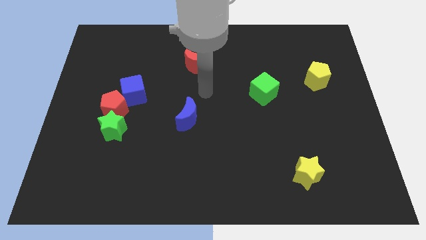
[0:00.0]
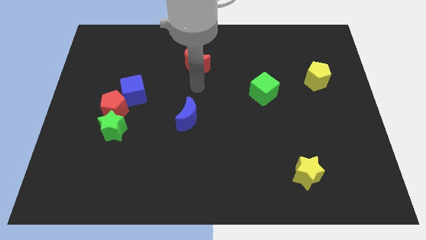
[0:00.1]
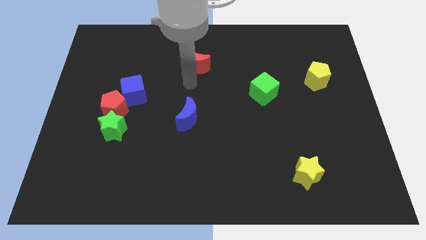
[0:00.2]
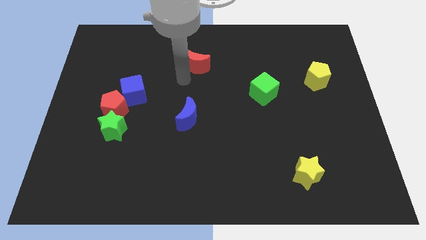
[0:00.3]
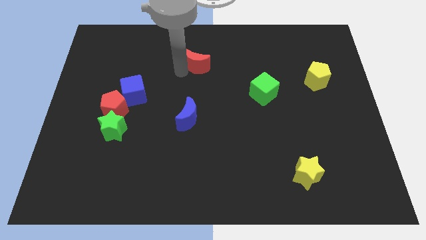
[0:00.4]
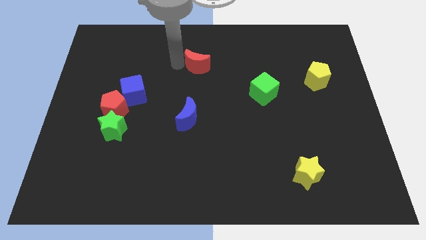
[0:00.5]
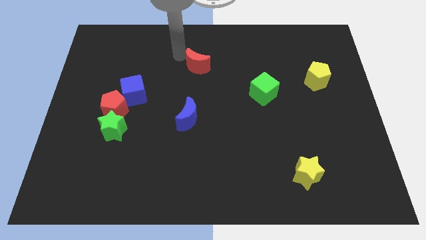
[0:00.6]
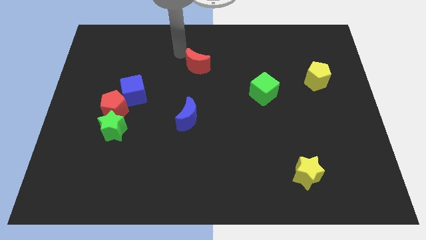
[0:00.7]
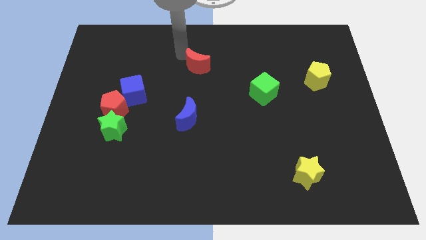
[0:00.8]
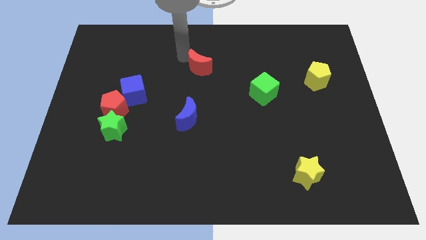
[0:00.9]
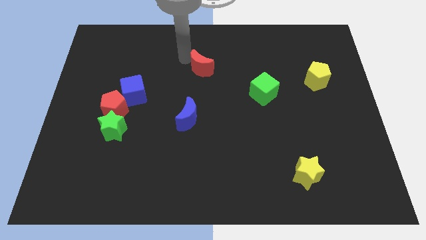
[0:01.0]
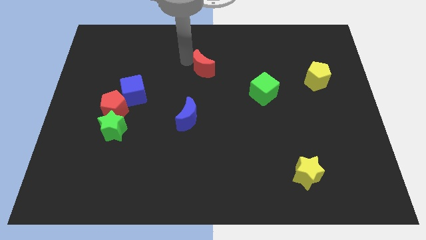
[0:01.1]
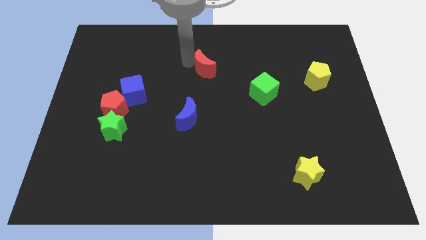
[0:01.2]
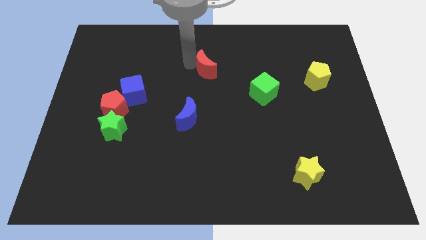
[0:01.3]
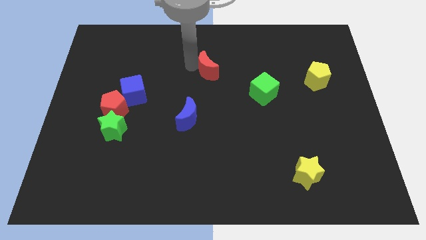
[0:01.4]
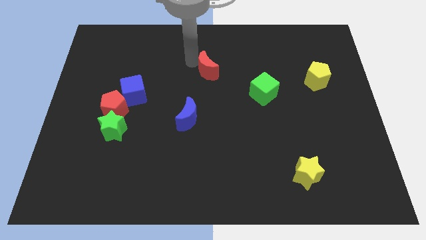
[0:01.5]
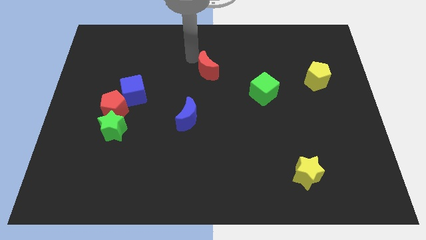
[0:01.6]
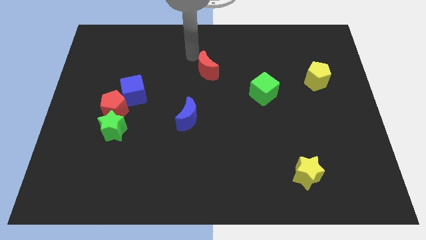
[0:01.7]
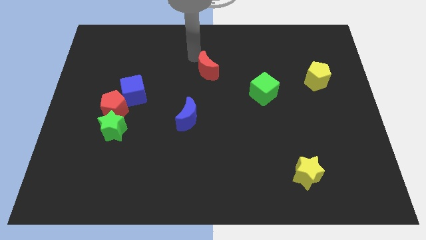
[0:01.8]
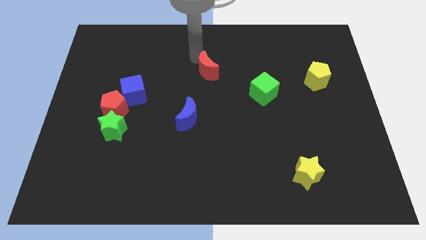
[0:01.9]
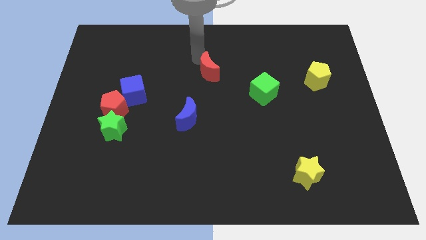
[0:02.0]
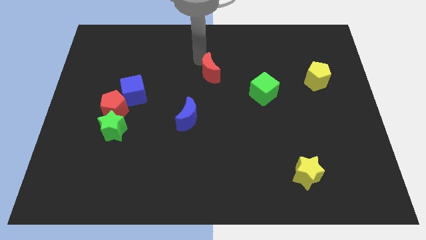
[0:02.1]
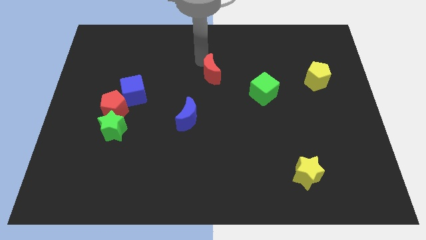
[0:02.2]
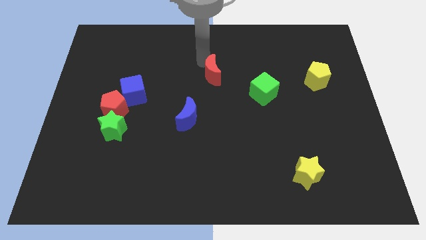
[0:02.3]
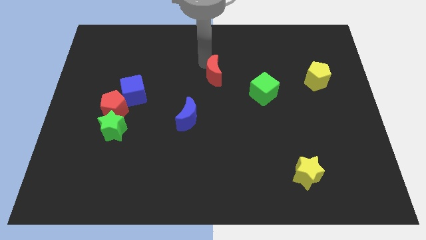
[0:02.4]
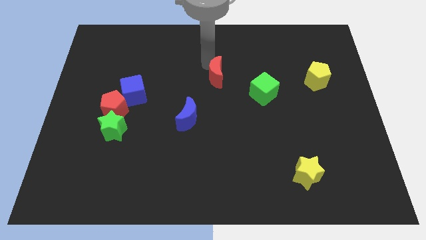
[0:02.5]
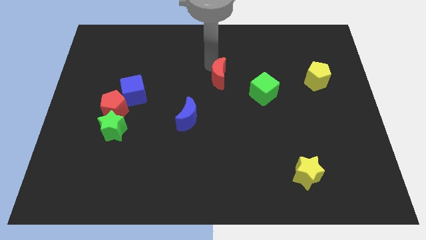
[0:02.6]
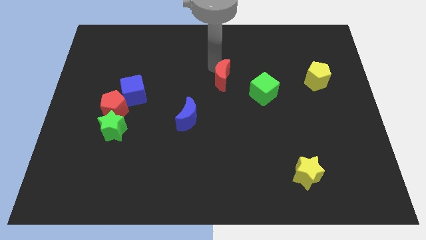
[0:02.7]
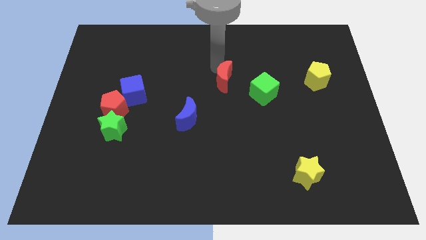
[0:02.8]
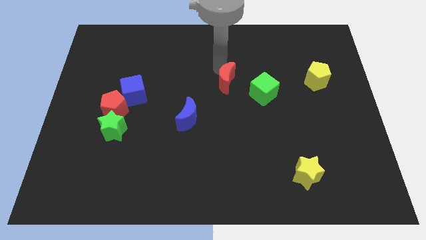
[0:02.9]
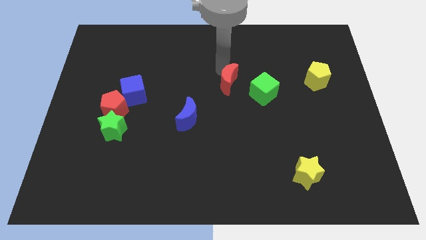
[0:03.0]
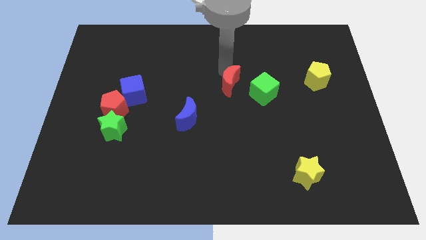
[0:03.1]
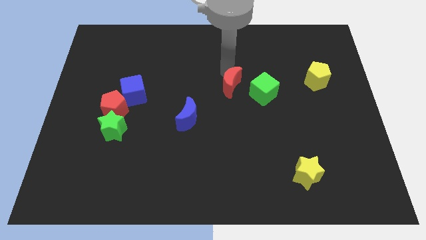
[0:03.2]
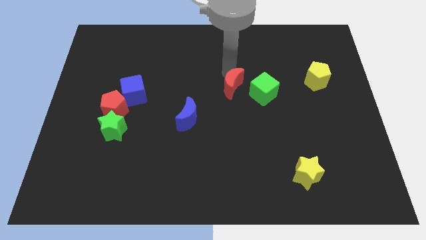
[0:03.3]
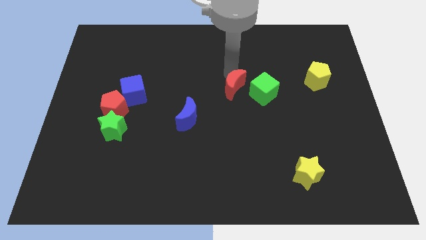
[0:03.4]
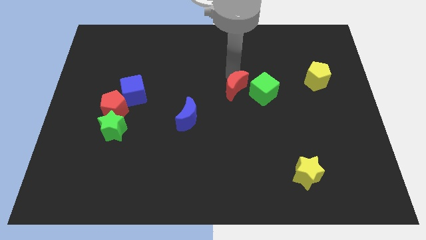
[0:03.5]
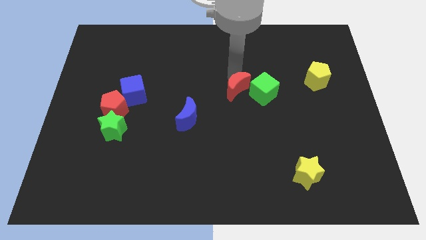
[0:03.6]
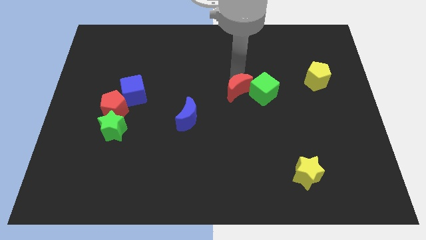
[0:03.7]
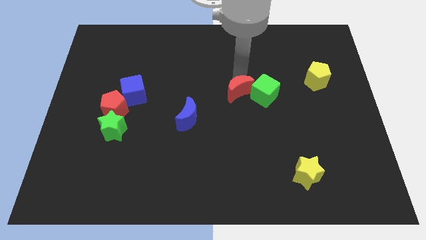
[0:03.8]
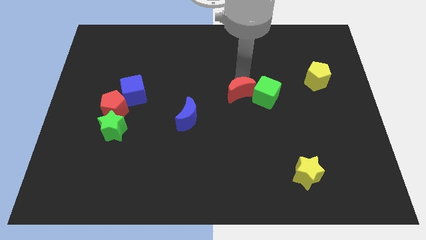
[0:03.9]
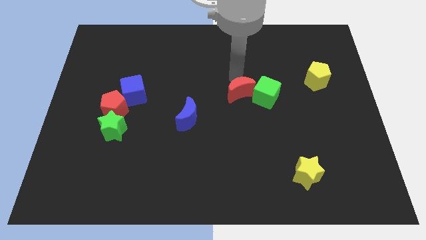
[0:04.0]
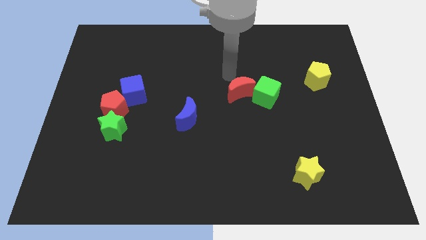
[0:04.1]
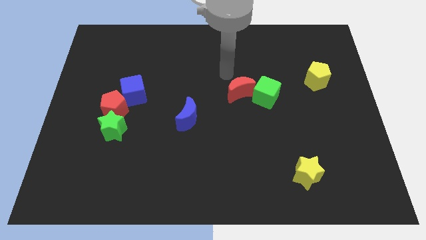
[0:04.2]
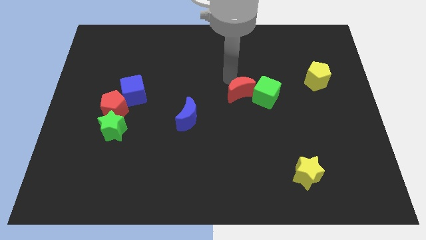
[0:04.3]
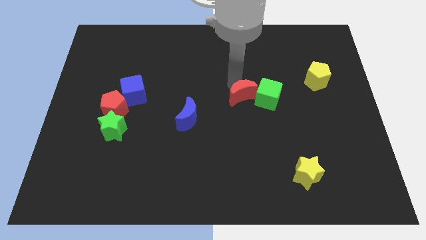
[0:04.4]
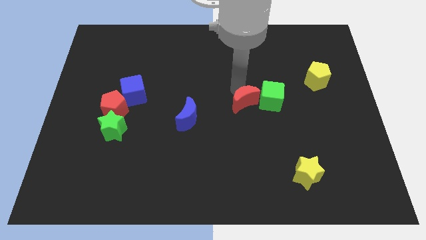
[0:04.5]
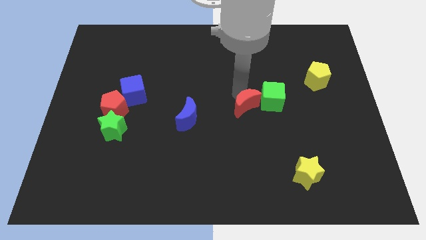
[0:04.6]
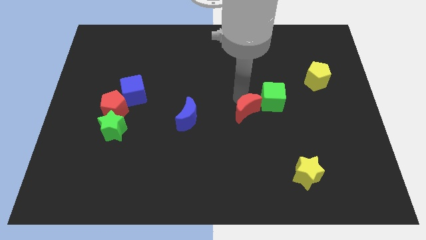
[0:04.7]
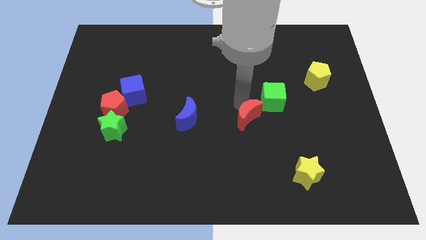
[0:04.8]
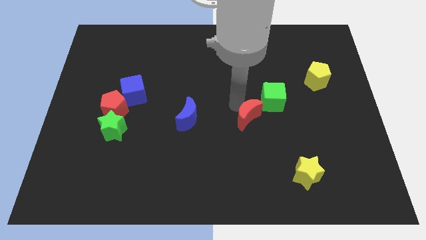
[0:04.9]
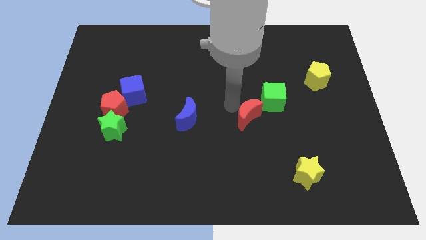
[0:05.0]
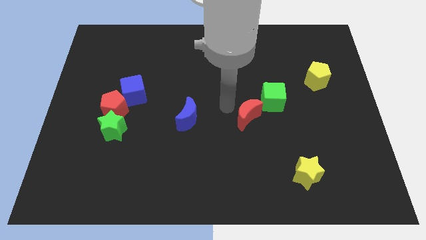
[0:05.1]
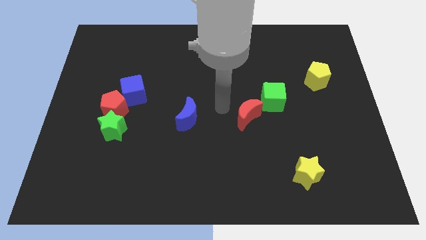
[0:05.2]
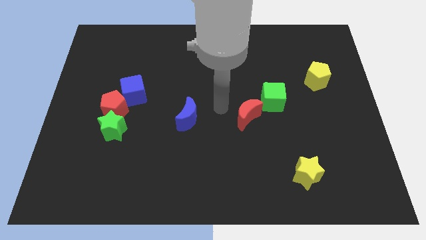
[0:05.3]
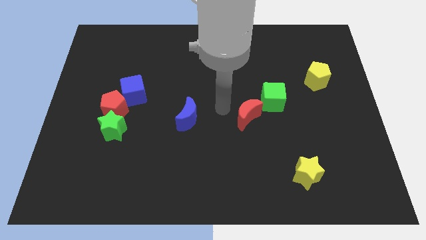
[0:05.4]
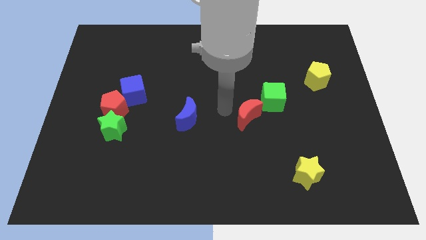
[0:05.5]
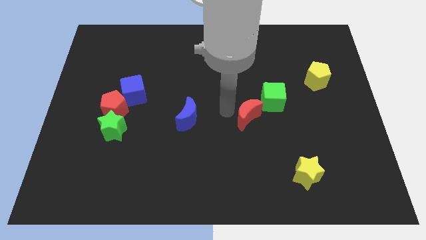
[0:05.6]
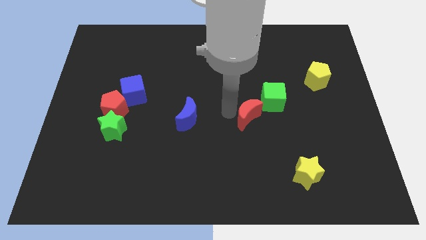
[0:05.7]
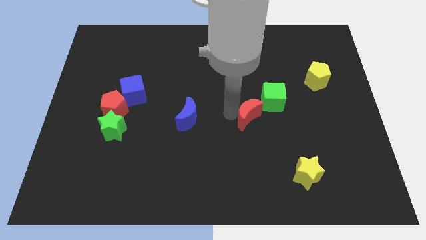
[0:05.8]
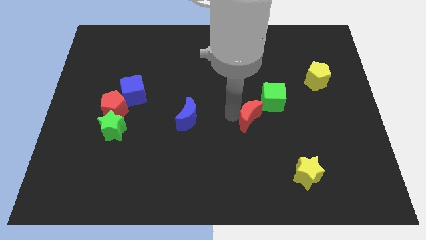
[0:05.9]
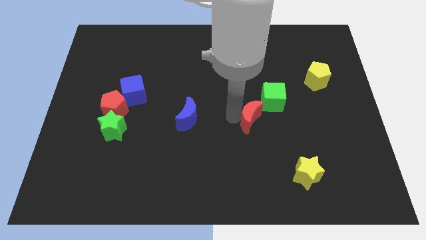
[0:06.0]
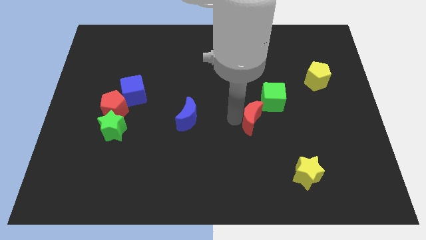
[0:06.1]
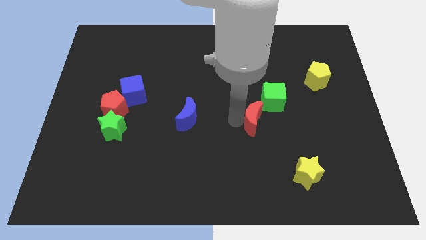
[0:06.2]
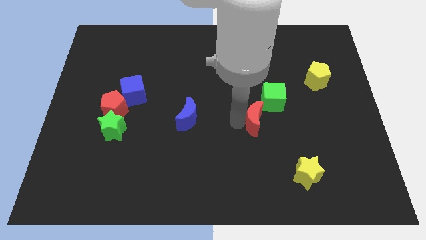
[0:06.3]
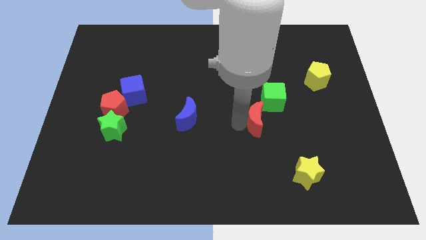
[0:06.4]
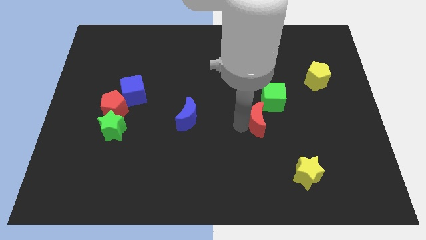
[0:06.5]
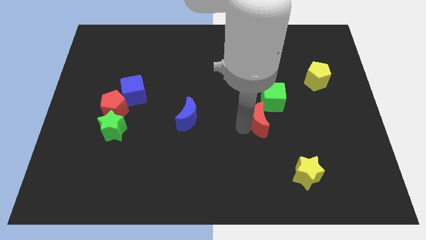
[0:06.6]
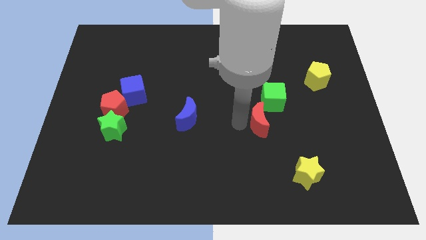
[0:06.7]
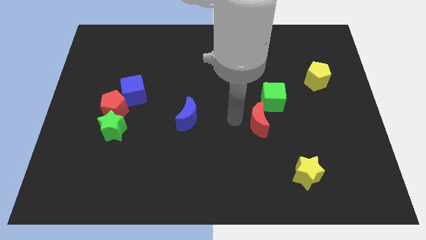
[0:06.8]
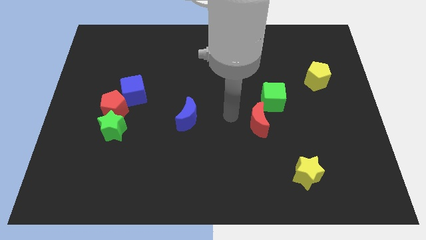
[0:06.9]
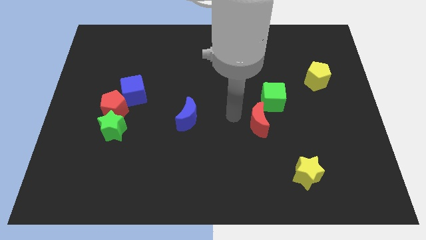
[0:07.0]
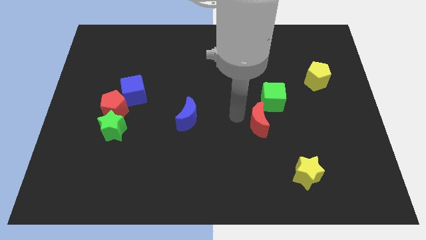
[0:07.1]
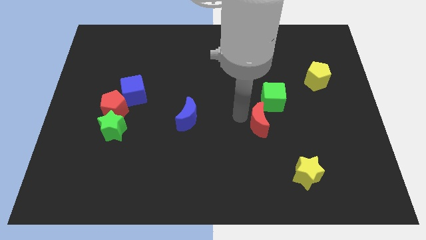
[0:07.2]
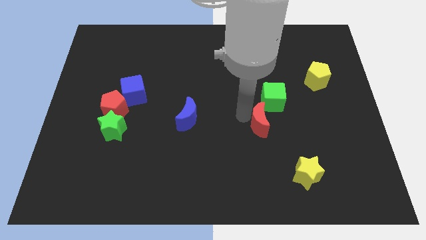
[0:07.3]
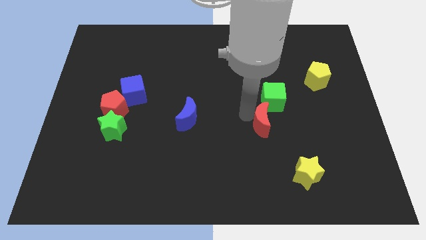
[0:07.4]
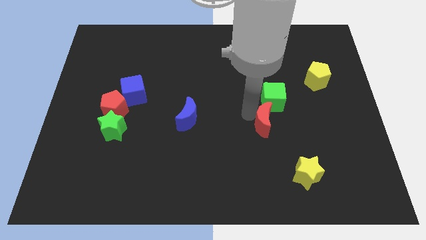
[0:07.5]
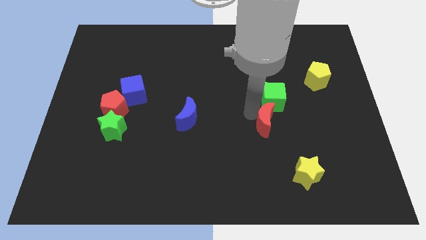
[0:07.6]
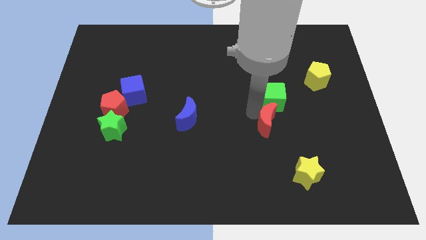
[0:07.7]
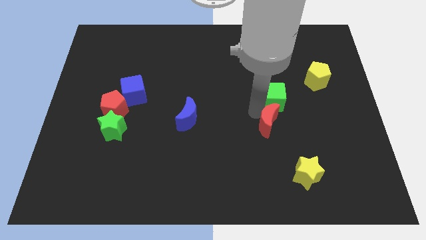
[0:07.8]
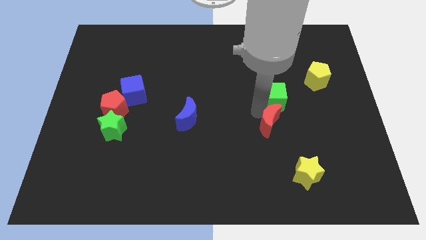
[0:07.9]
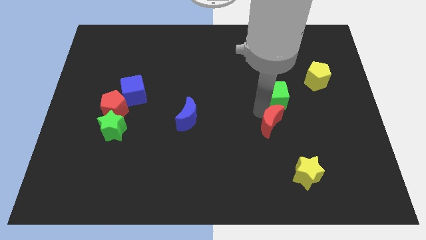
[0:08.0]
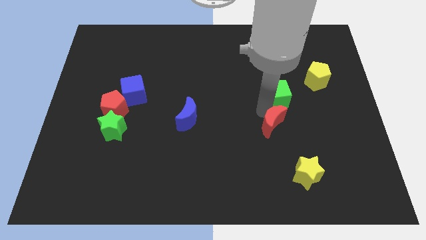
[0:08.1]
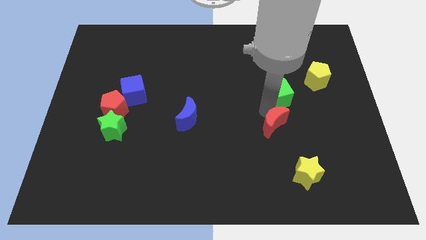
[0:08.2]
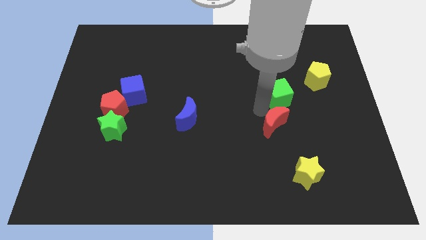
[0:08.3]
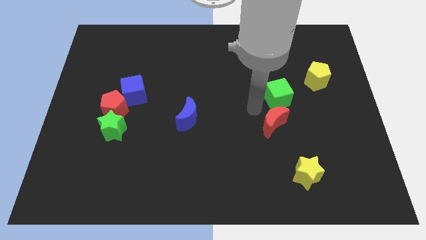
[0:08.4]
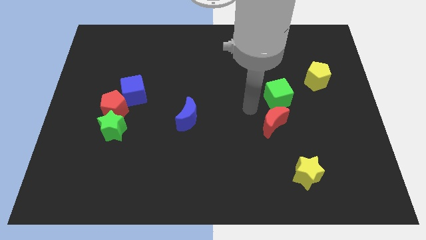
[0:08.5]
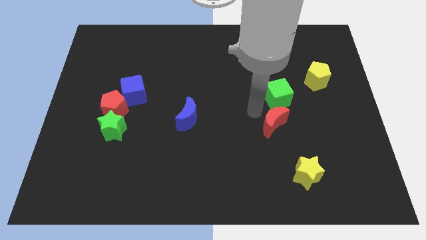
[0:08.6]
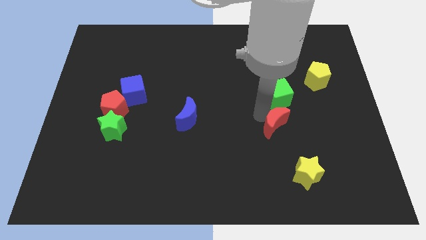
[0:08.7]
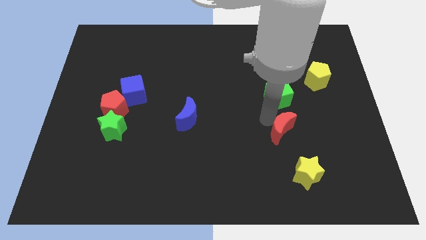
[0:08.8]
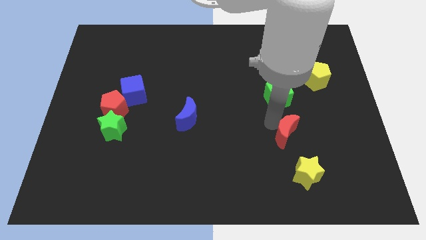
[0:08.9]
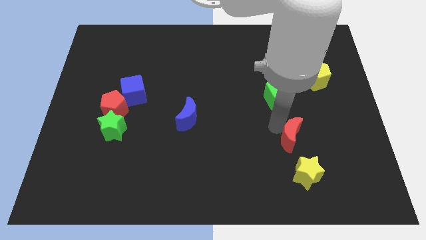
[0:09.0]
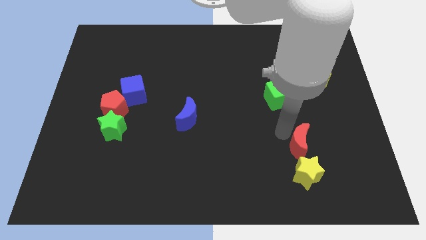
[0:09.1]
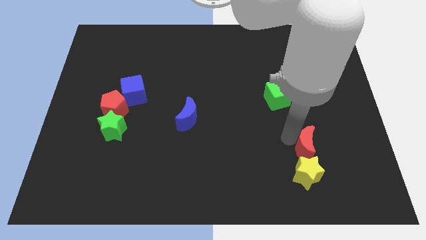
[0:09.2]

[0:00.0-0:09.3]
slide the red moon to the top right of the yellow star
